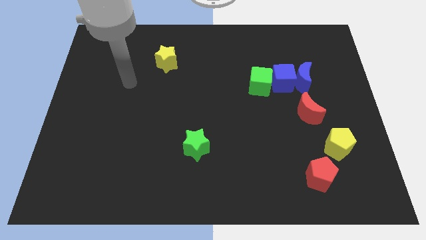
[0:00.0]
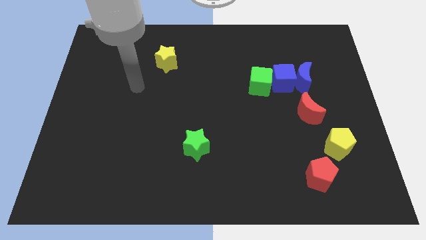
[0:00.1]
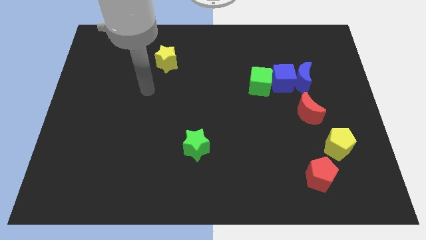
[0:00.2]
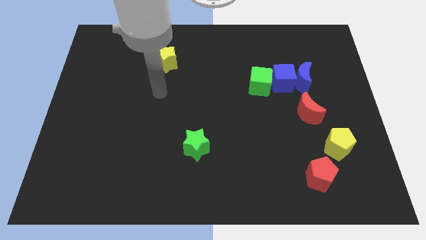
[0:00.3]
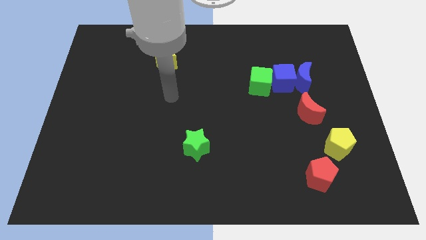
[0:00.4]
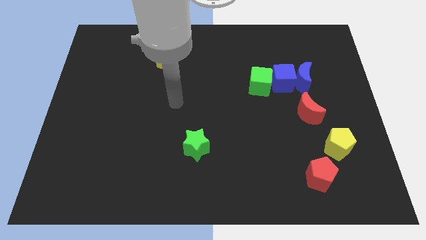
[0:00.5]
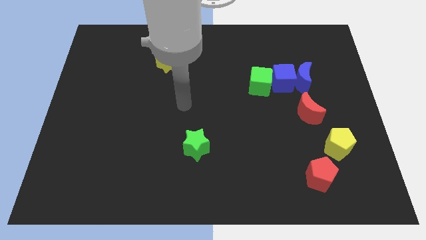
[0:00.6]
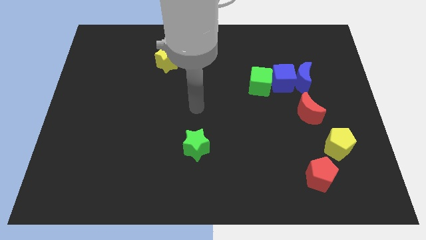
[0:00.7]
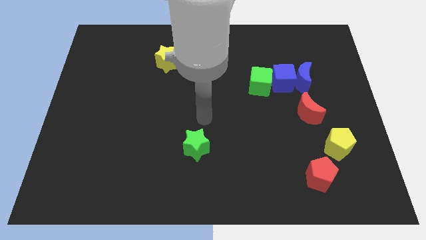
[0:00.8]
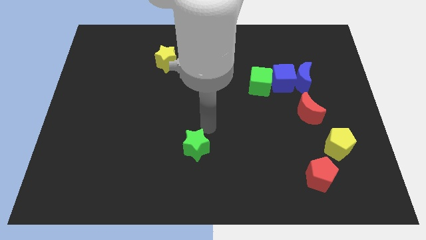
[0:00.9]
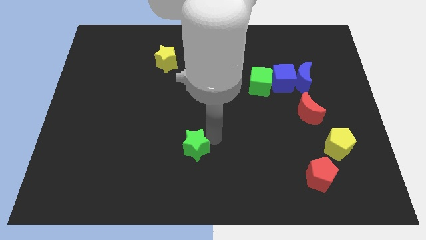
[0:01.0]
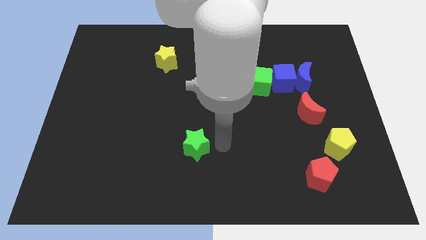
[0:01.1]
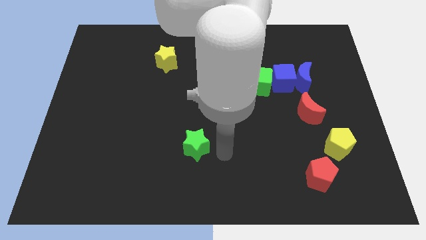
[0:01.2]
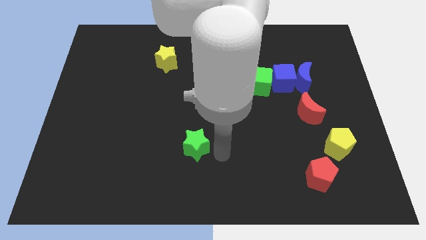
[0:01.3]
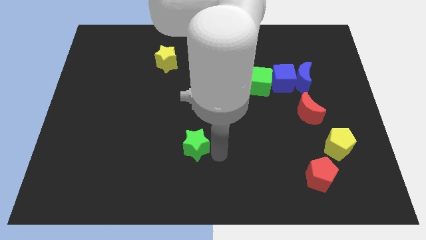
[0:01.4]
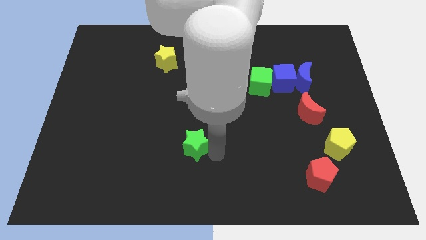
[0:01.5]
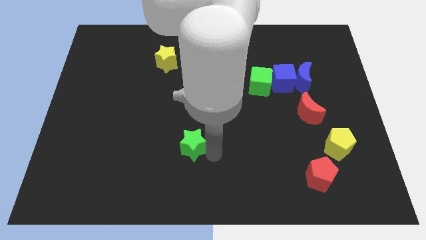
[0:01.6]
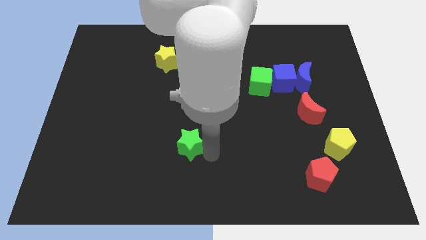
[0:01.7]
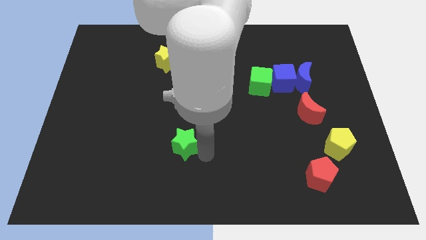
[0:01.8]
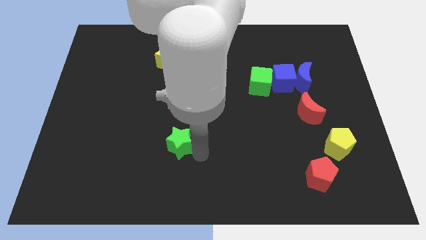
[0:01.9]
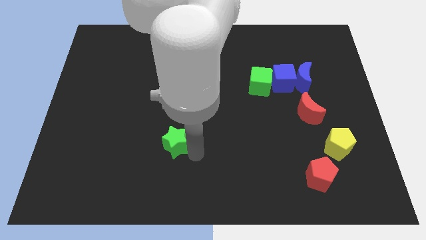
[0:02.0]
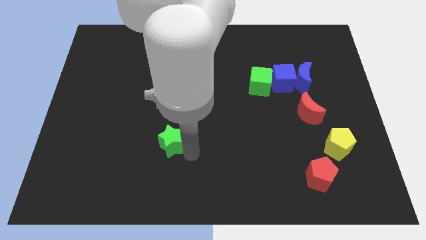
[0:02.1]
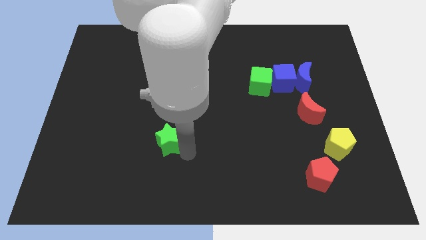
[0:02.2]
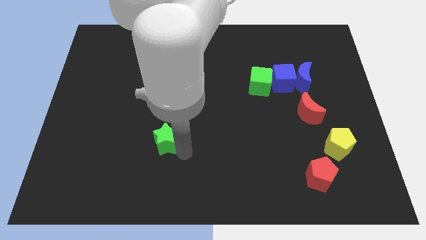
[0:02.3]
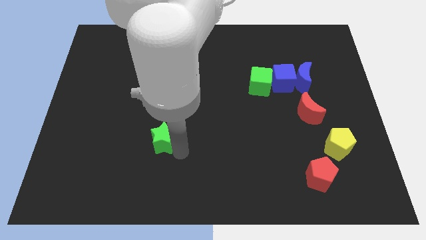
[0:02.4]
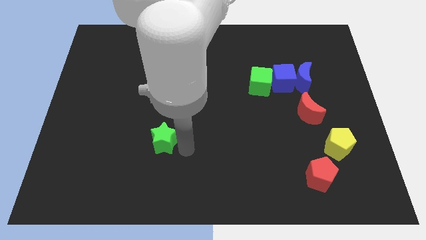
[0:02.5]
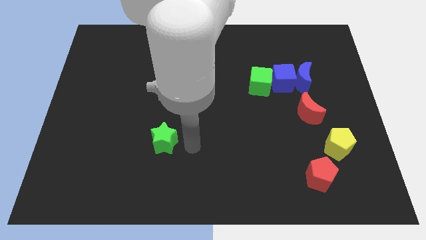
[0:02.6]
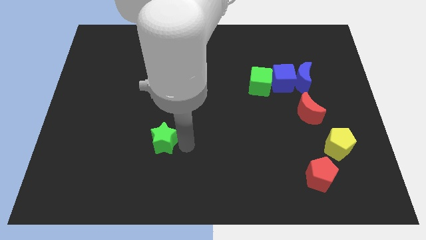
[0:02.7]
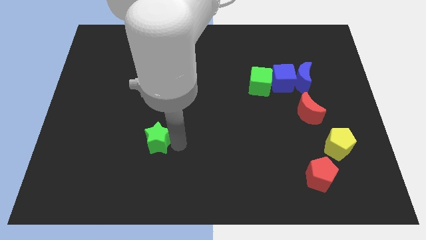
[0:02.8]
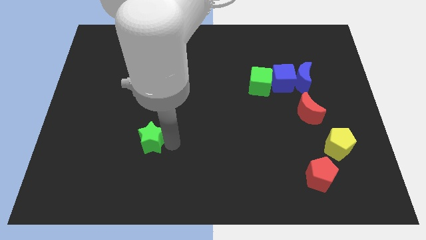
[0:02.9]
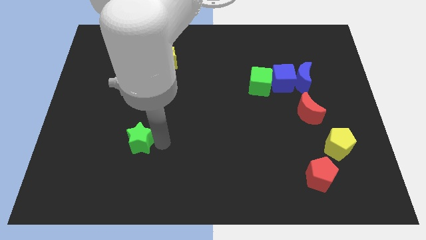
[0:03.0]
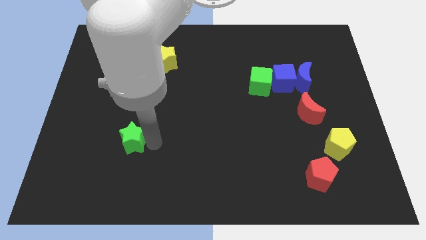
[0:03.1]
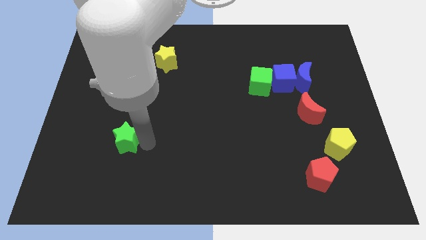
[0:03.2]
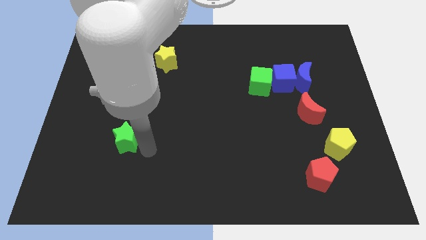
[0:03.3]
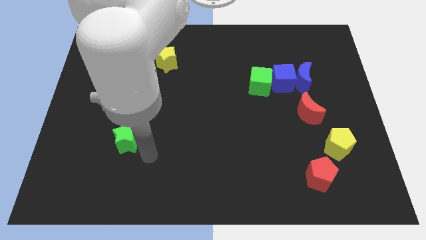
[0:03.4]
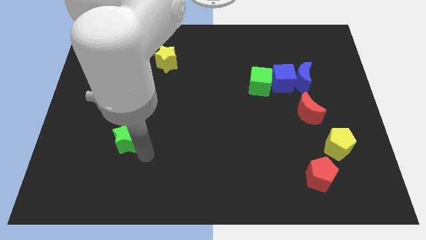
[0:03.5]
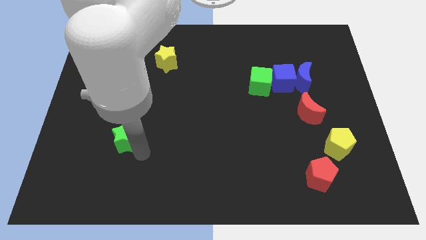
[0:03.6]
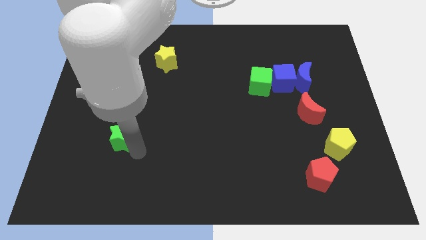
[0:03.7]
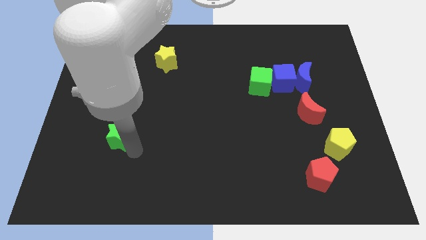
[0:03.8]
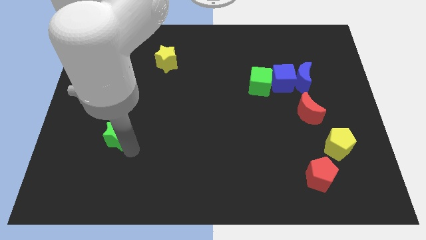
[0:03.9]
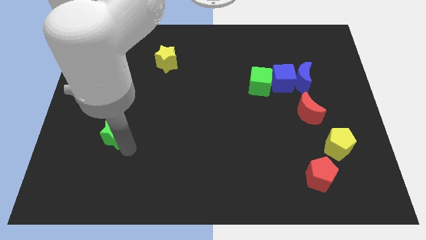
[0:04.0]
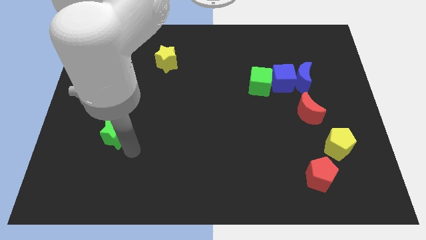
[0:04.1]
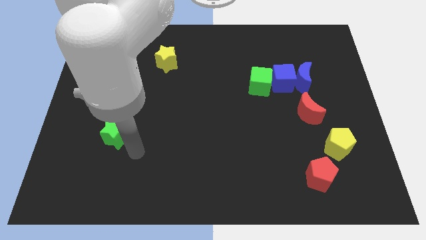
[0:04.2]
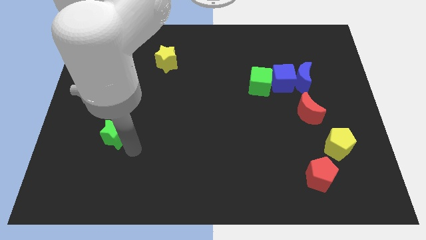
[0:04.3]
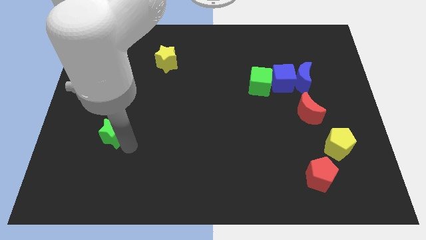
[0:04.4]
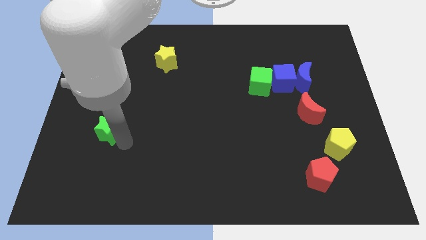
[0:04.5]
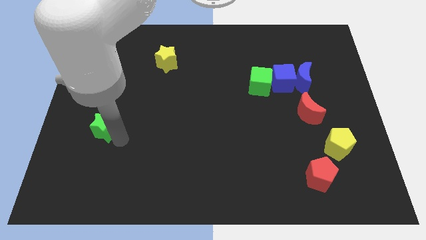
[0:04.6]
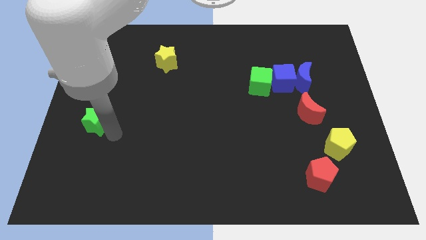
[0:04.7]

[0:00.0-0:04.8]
slide the green star to the center left

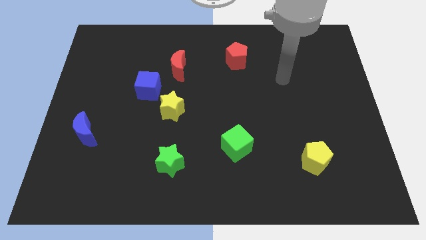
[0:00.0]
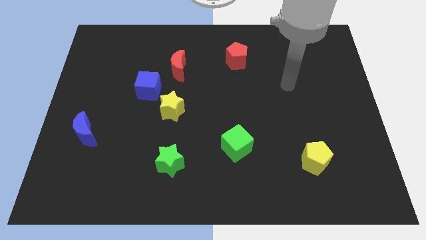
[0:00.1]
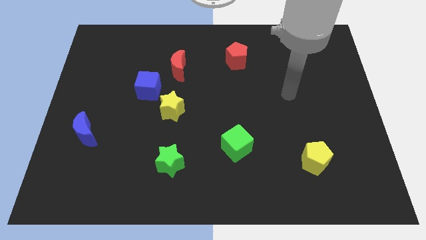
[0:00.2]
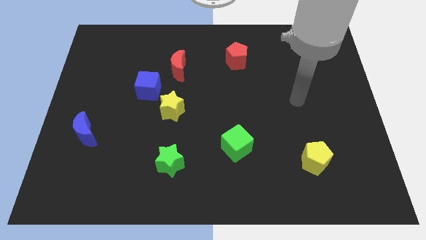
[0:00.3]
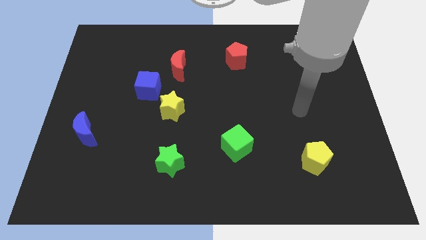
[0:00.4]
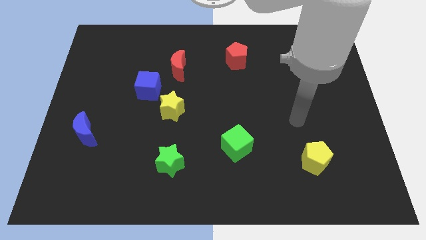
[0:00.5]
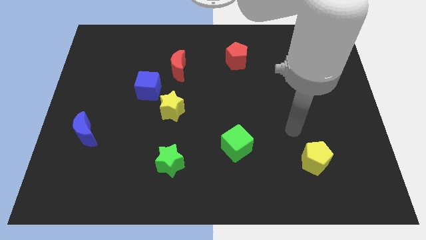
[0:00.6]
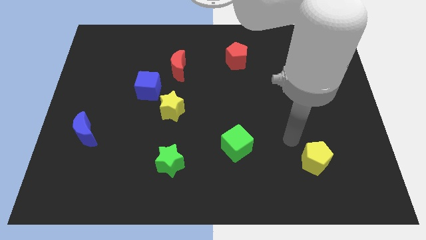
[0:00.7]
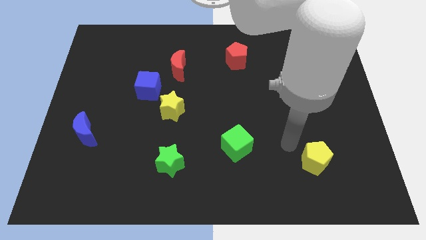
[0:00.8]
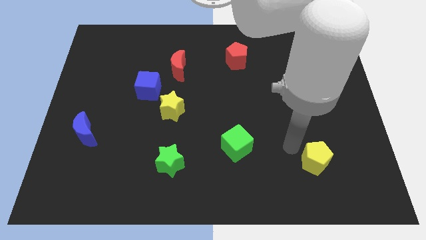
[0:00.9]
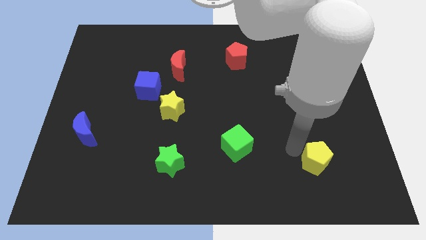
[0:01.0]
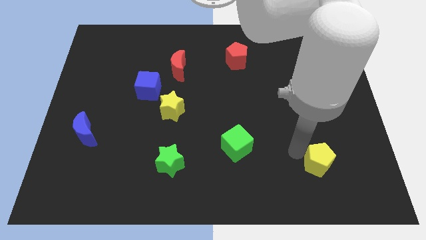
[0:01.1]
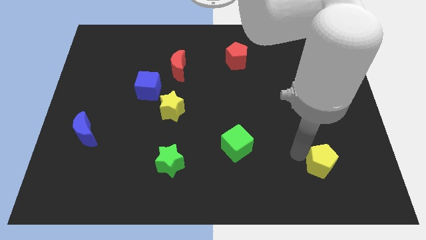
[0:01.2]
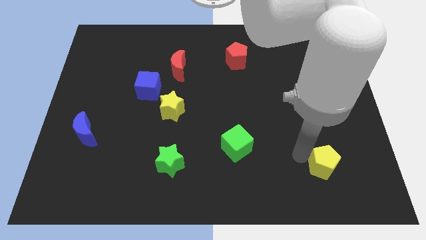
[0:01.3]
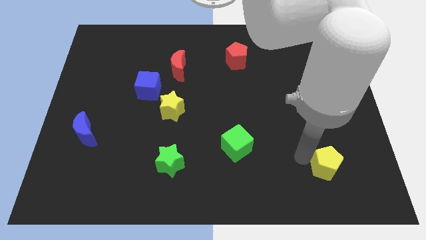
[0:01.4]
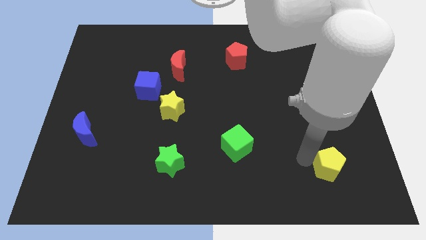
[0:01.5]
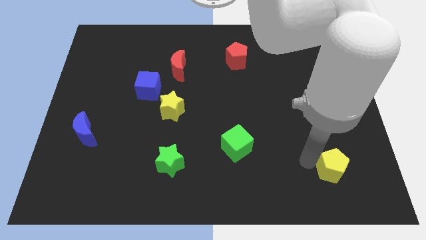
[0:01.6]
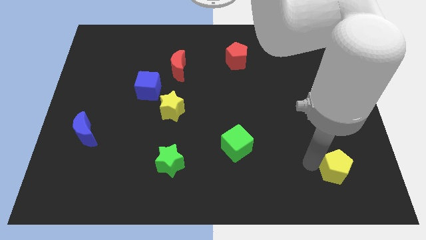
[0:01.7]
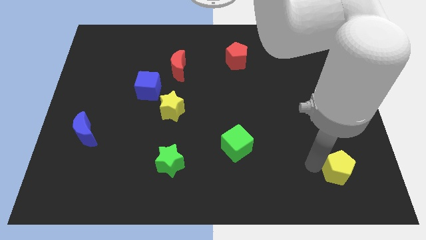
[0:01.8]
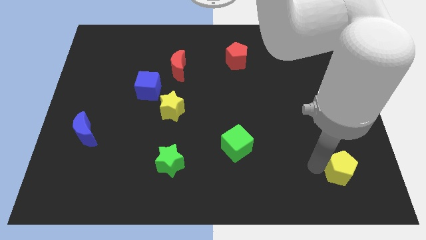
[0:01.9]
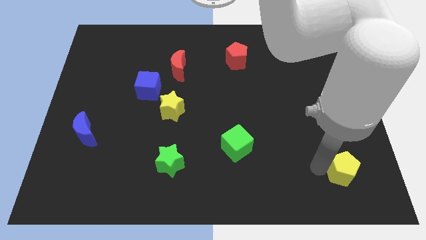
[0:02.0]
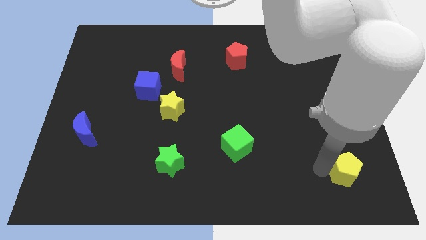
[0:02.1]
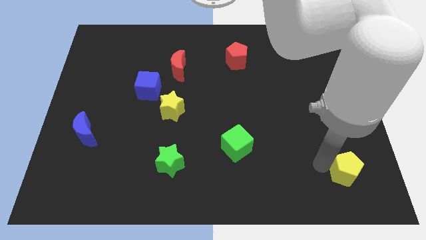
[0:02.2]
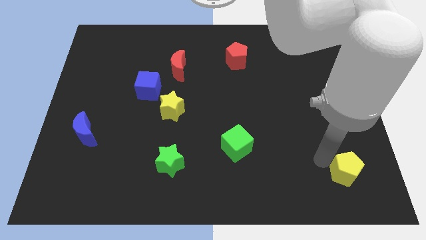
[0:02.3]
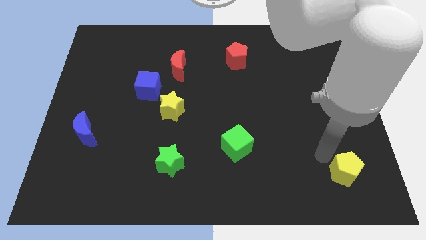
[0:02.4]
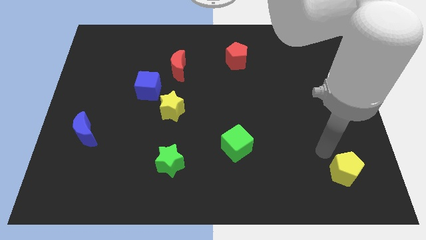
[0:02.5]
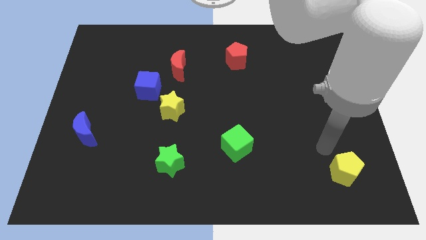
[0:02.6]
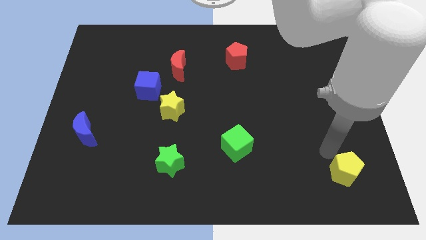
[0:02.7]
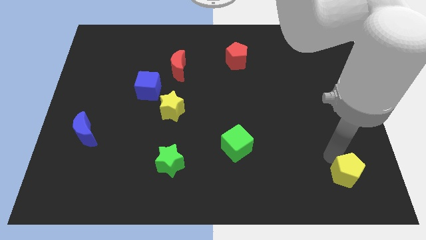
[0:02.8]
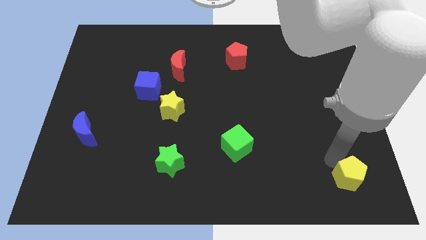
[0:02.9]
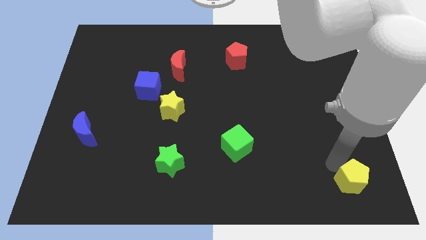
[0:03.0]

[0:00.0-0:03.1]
move the yellow pentagon to the lower right corner
